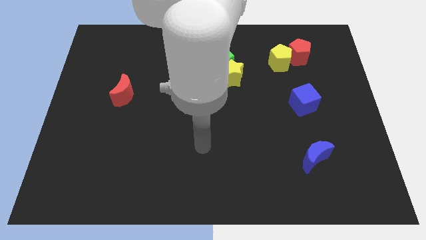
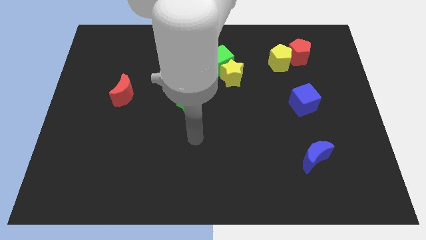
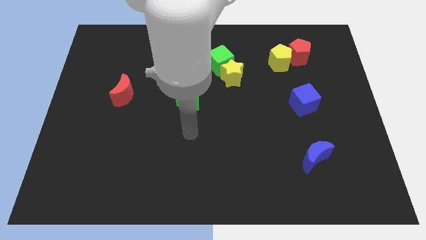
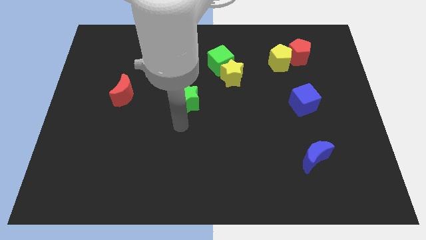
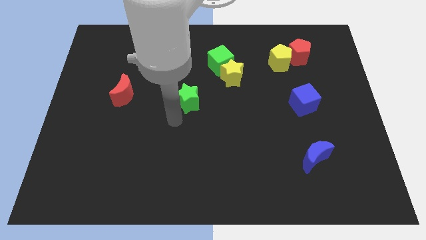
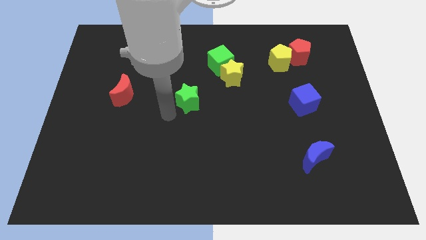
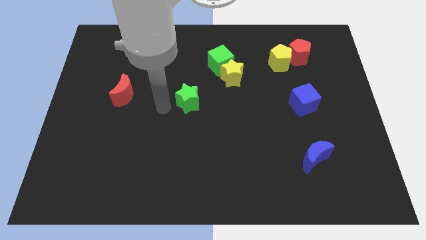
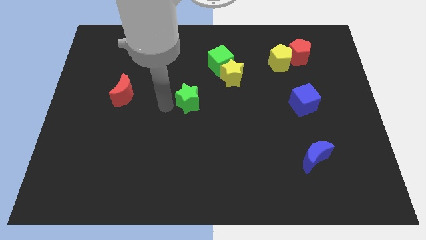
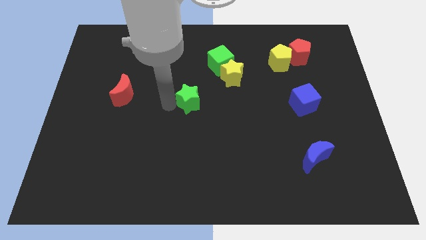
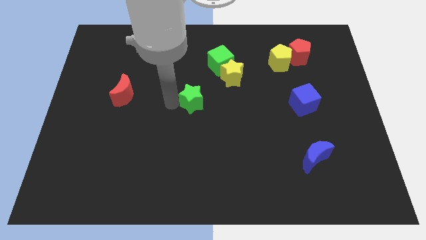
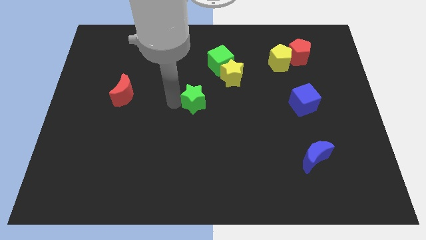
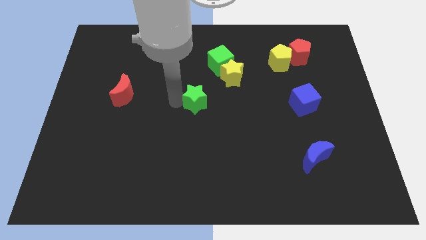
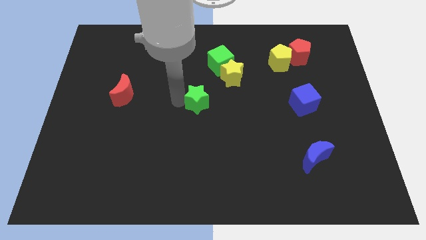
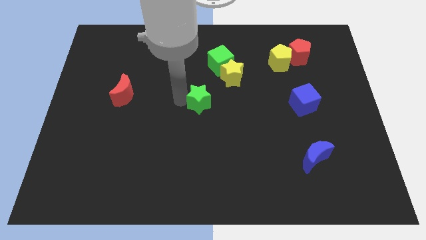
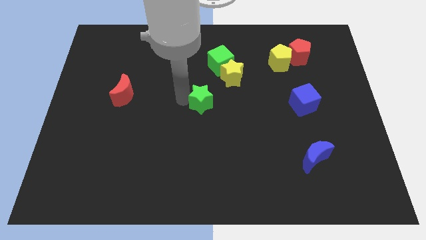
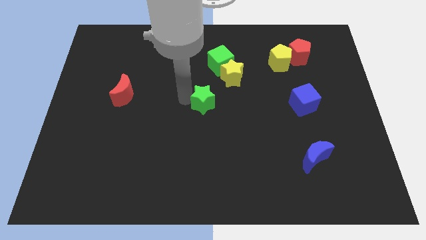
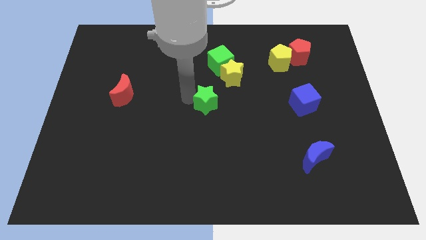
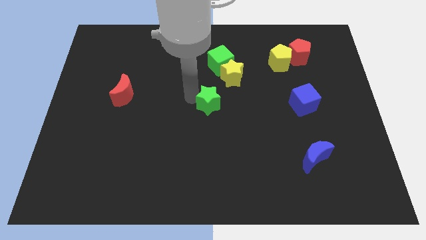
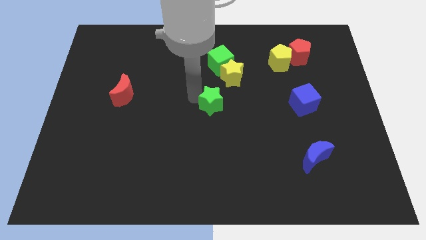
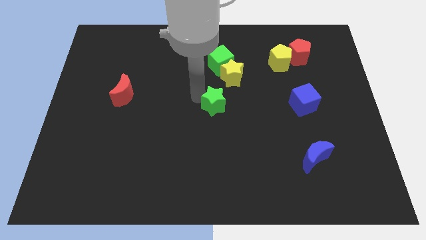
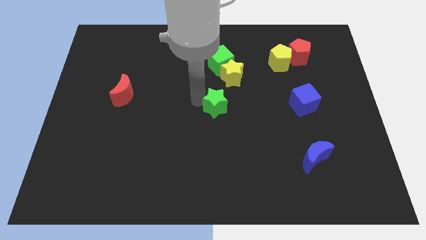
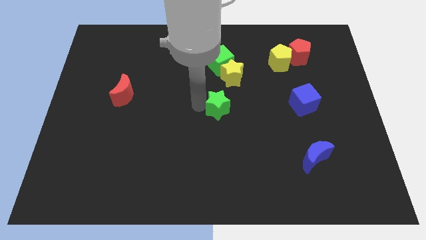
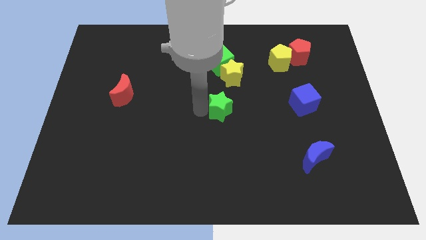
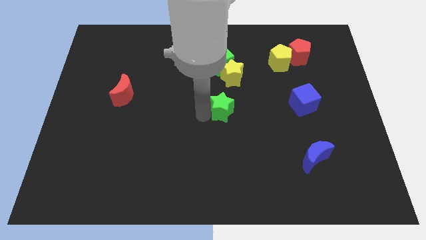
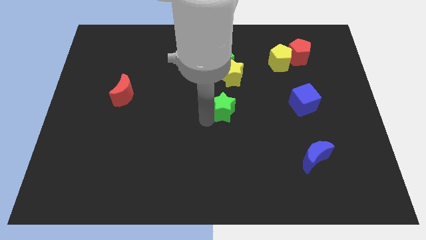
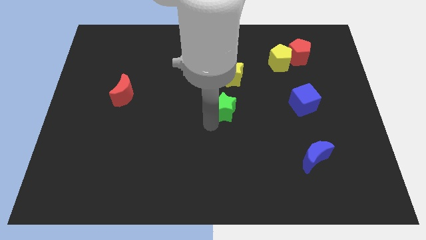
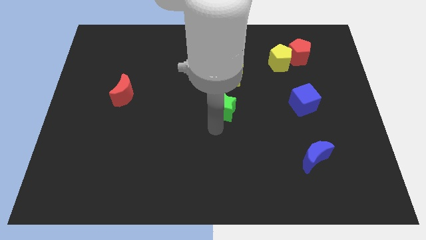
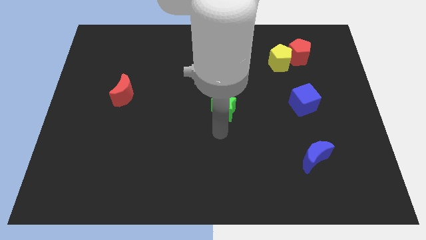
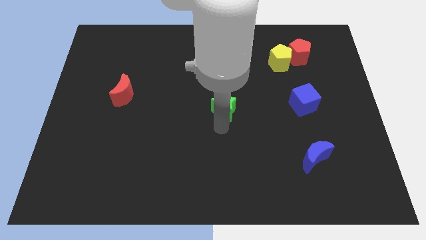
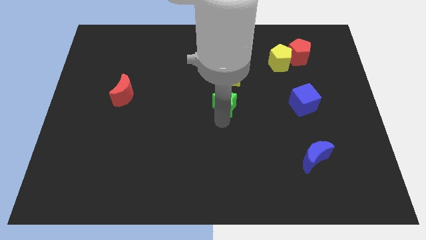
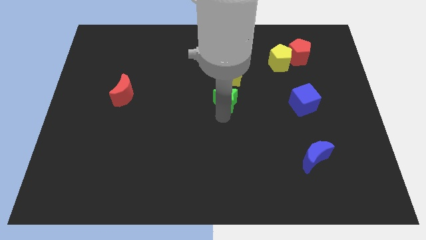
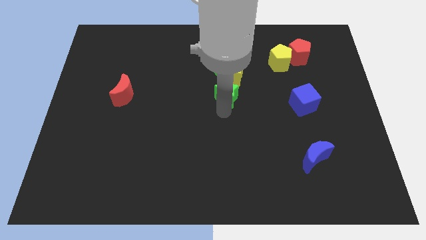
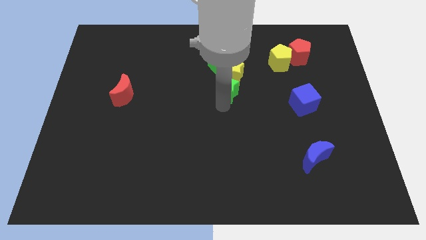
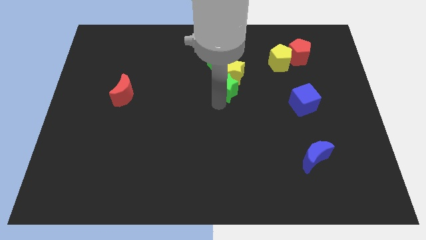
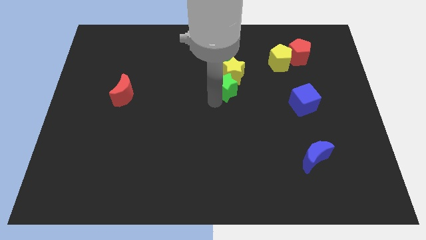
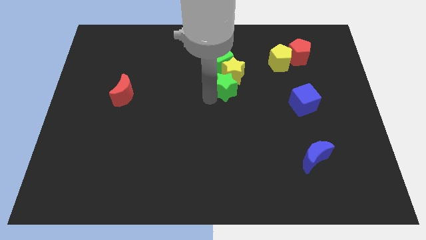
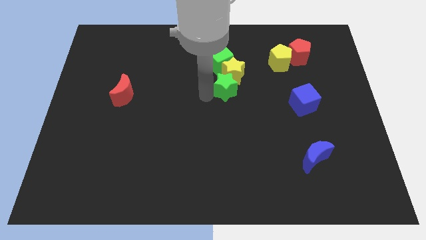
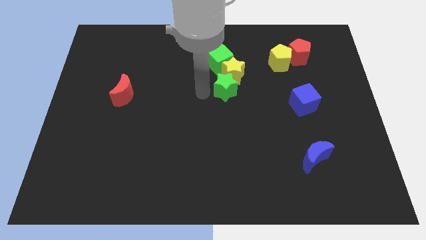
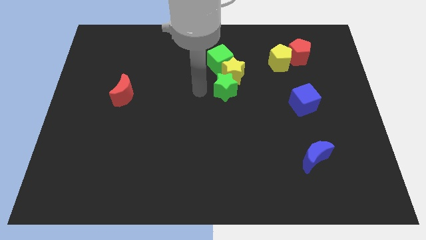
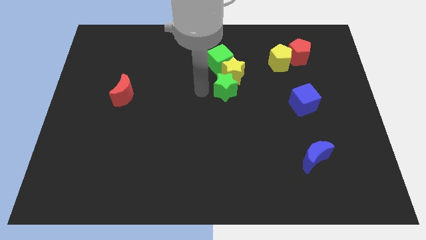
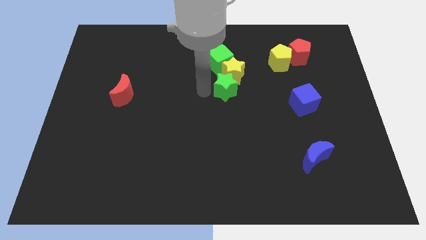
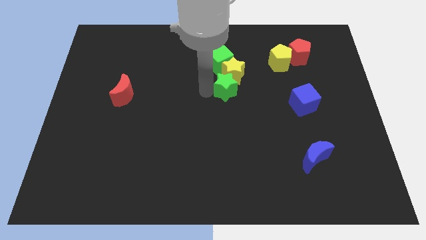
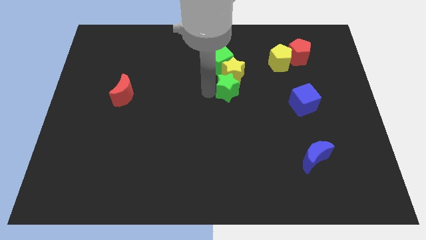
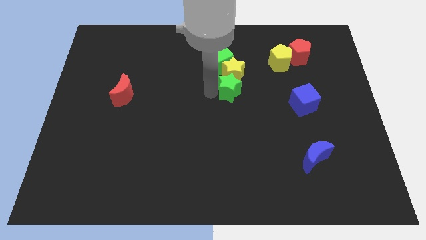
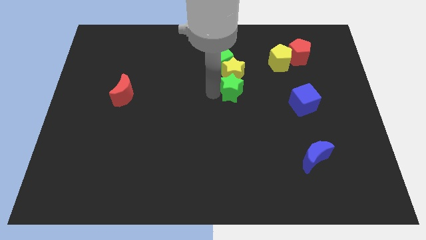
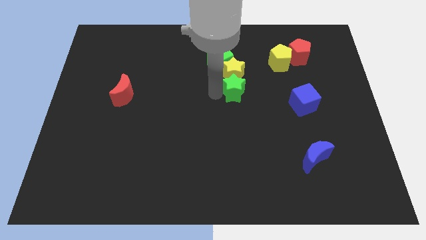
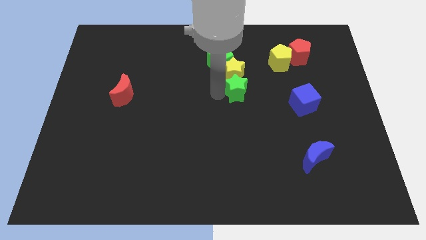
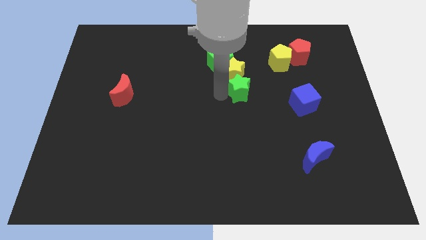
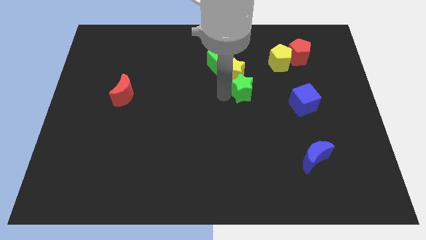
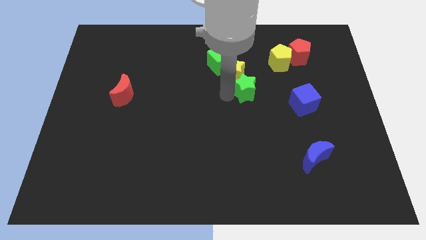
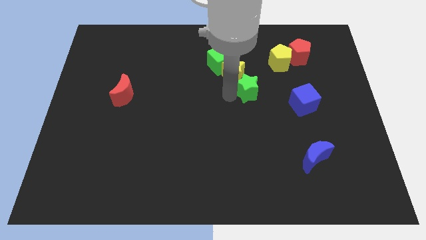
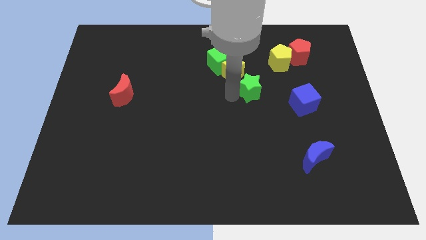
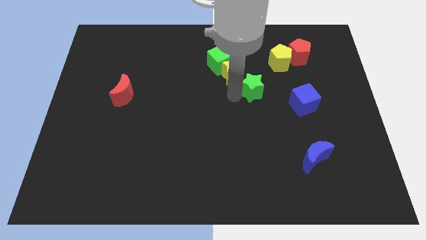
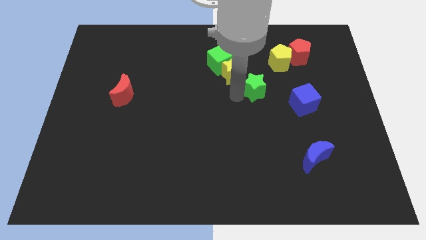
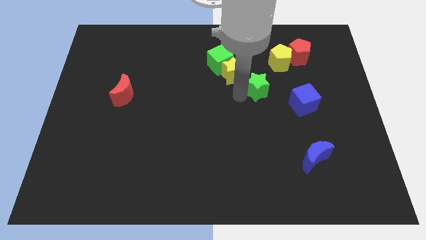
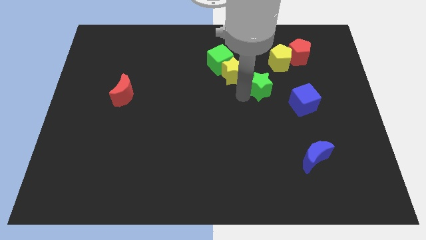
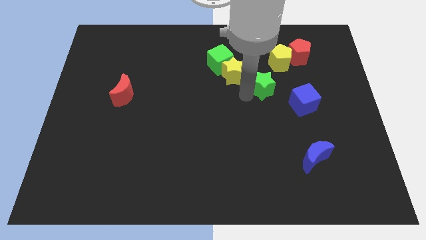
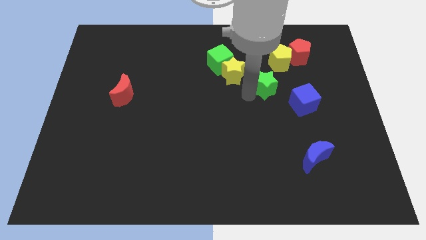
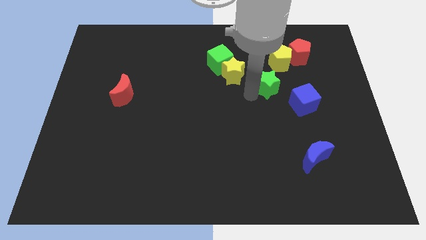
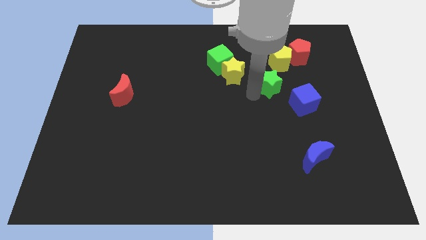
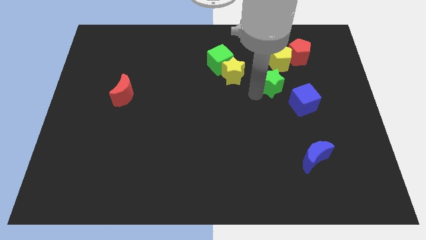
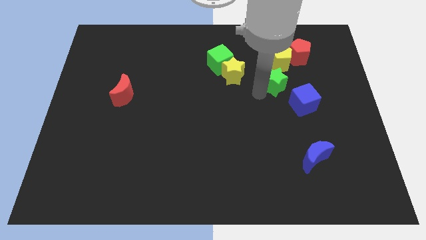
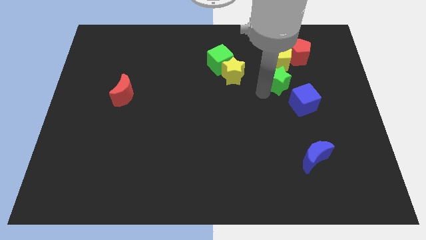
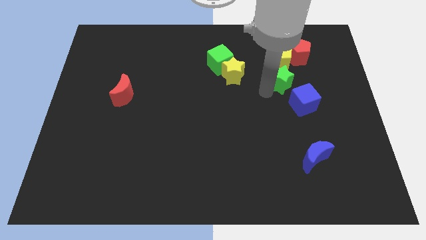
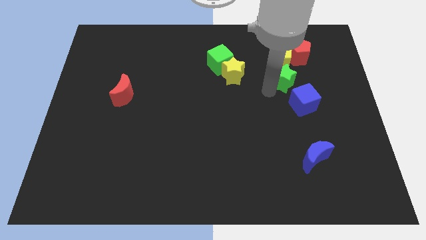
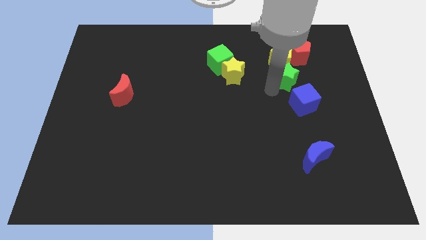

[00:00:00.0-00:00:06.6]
push the green star close to the yellow pentagon

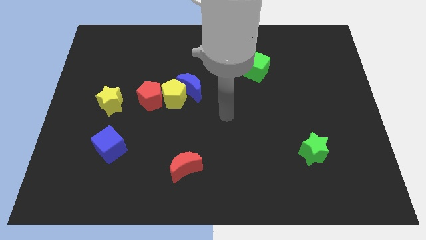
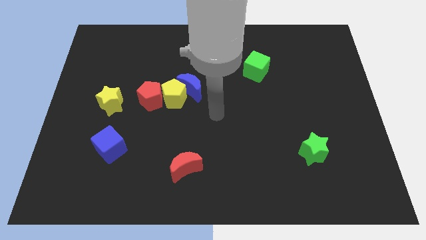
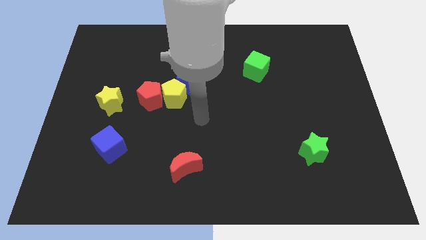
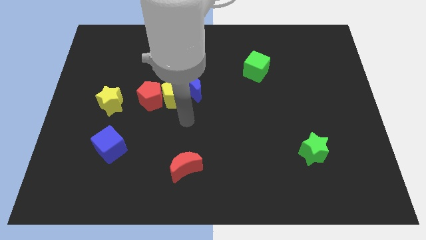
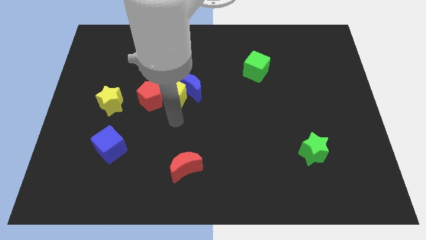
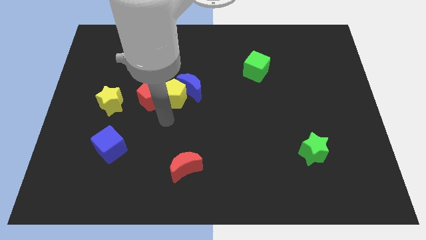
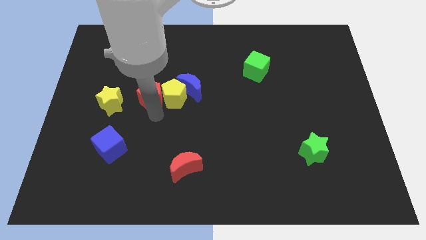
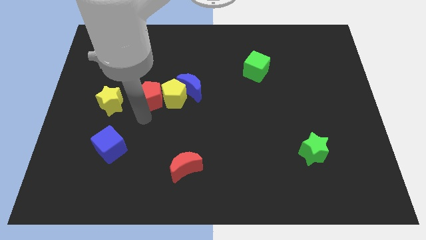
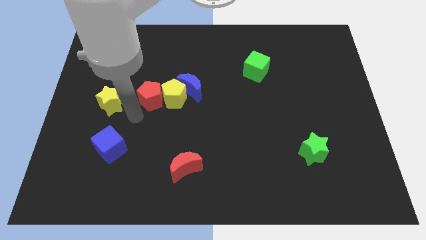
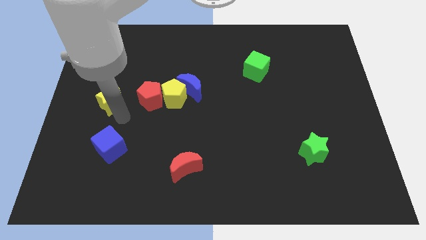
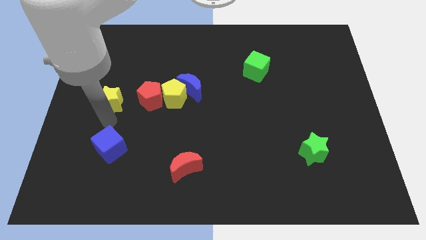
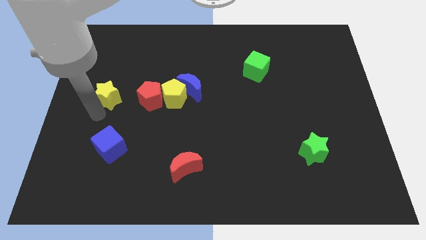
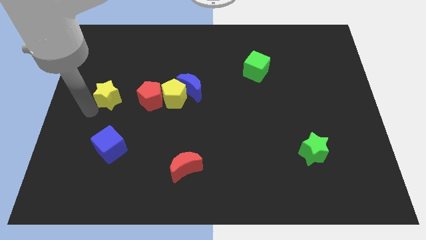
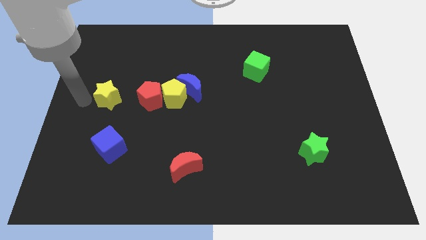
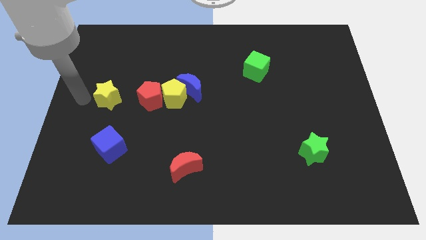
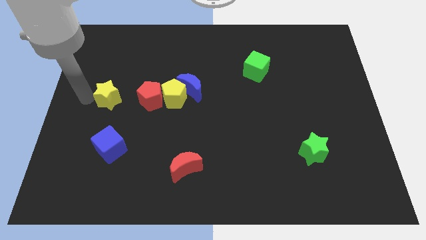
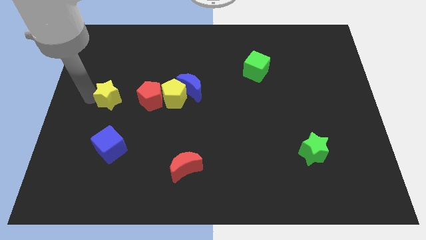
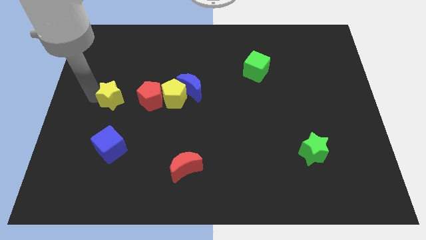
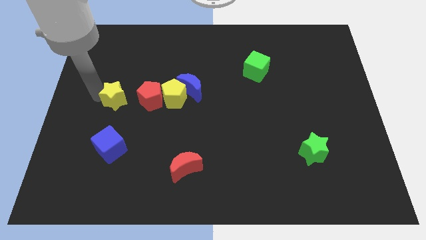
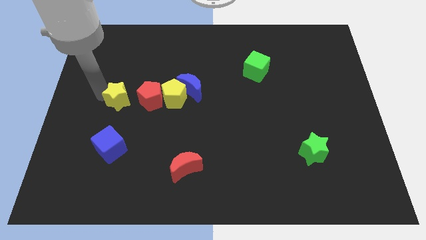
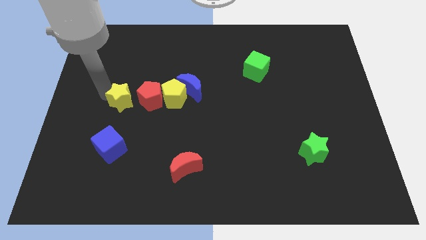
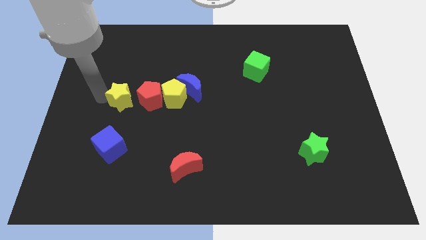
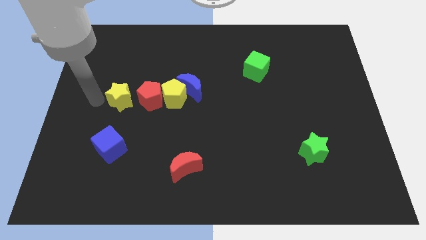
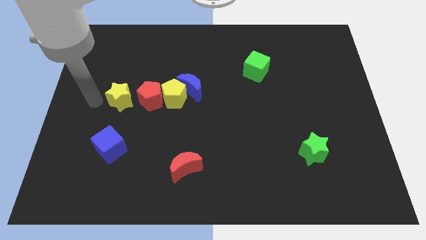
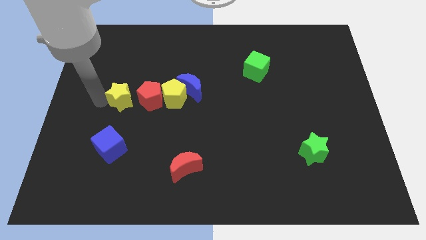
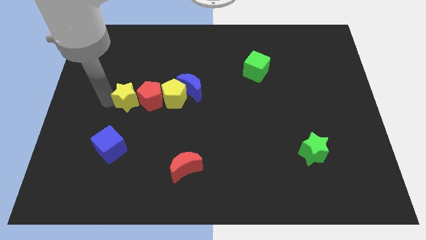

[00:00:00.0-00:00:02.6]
push the yellow star next to the red pentagon
